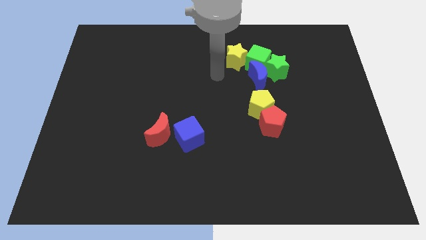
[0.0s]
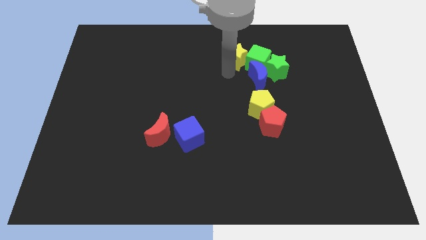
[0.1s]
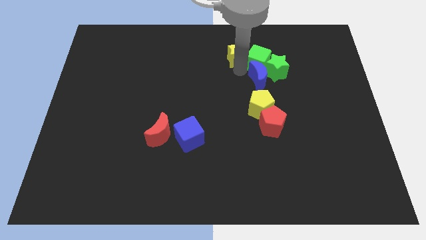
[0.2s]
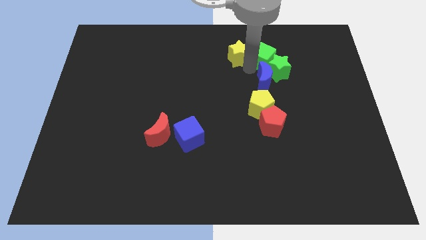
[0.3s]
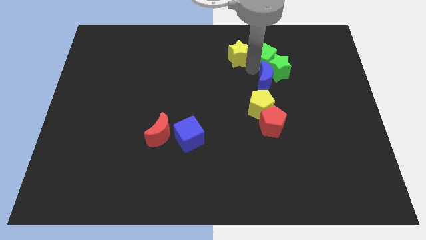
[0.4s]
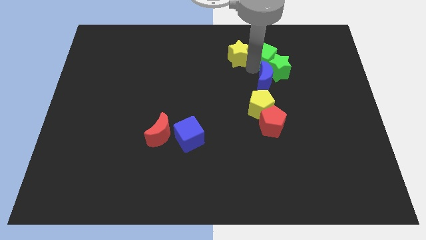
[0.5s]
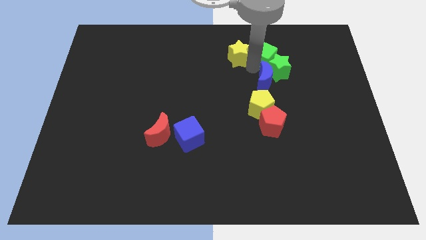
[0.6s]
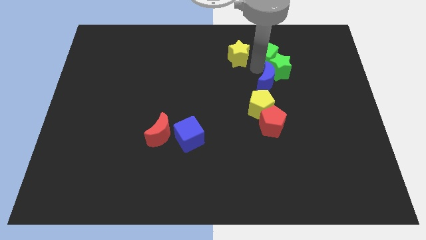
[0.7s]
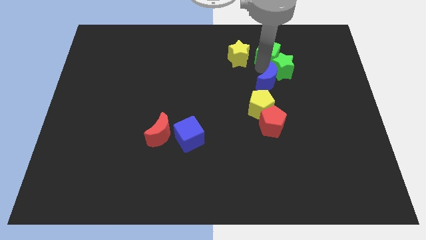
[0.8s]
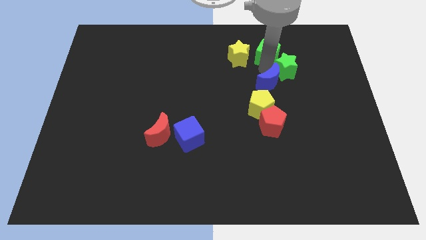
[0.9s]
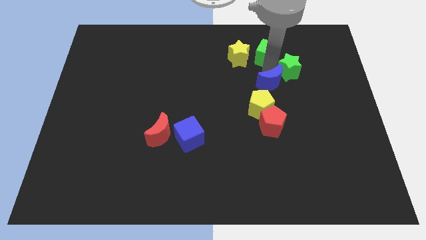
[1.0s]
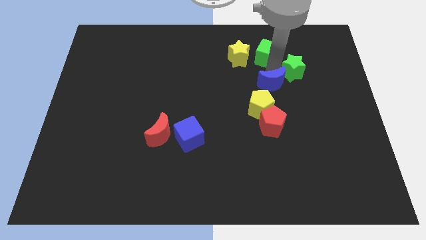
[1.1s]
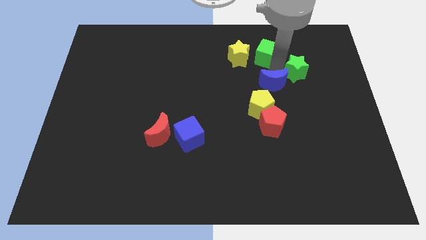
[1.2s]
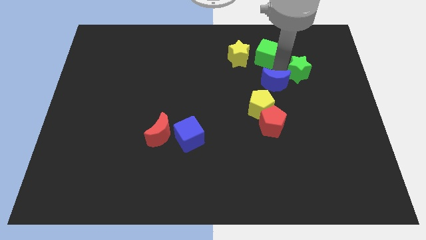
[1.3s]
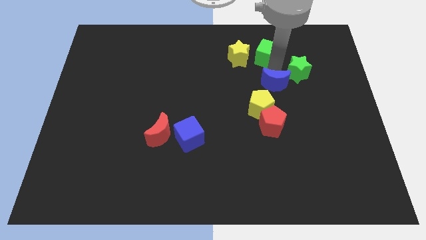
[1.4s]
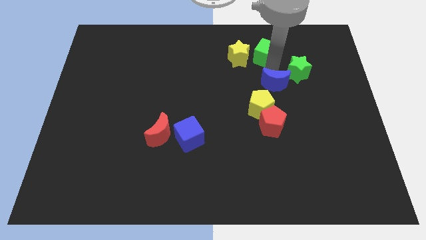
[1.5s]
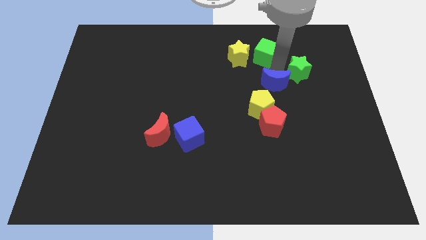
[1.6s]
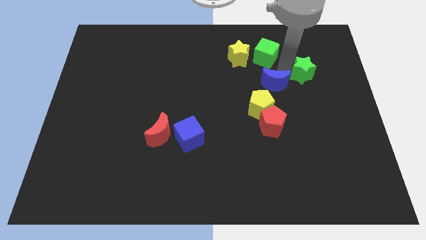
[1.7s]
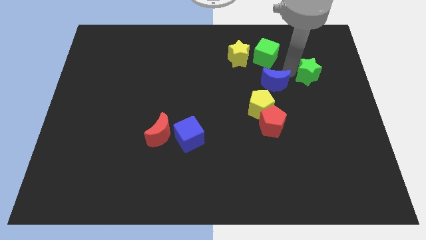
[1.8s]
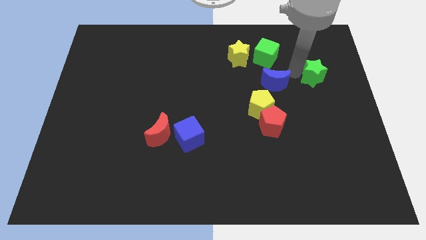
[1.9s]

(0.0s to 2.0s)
separate the green star from the blue moon and green cube

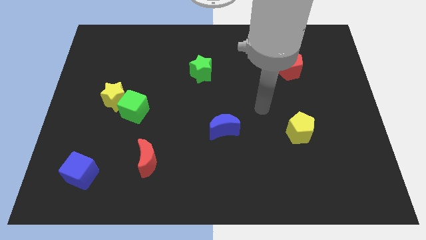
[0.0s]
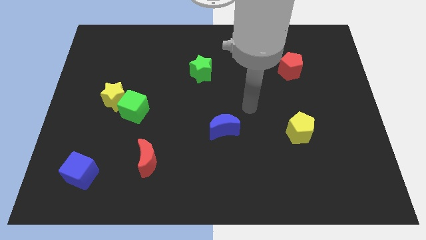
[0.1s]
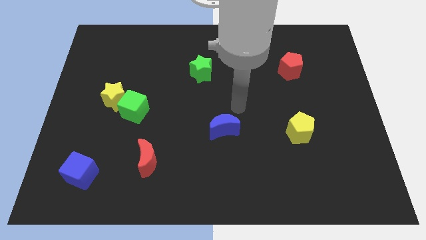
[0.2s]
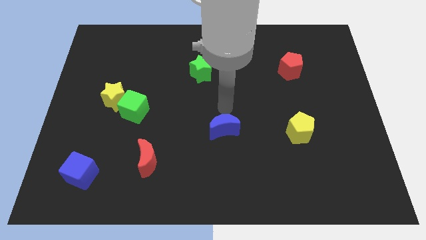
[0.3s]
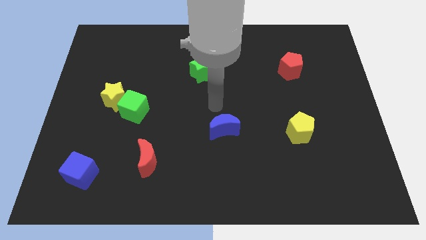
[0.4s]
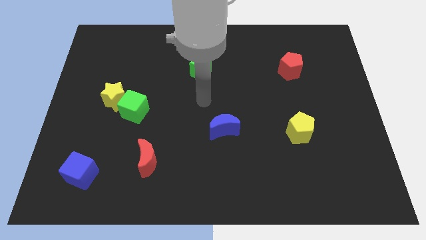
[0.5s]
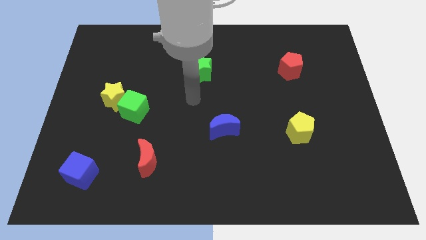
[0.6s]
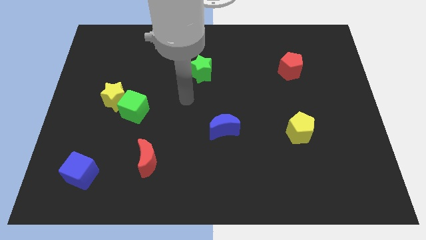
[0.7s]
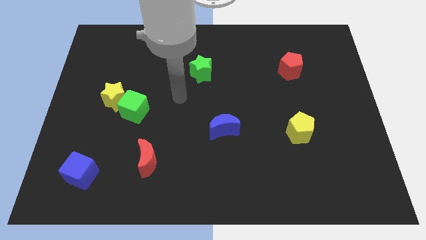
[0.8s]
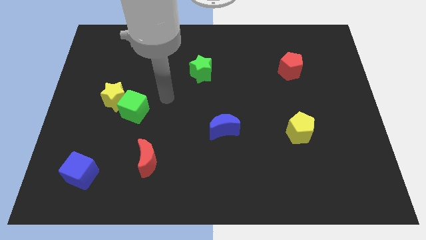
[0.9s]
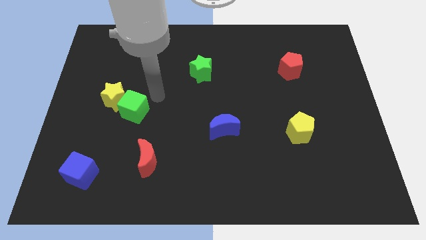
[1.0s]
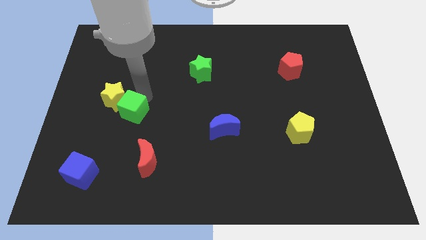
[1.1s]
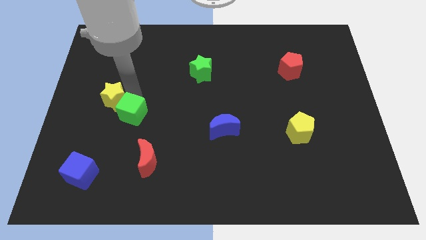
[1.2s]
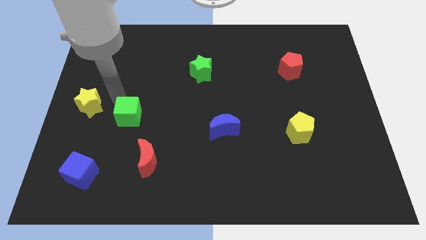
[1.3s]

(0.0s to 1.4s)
separate the green cube from the yellow star

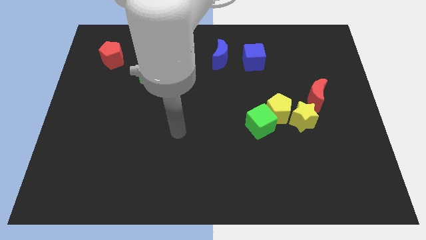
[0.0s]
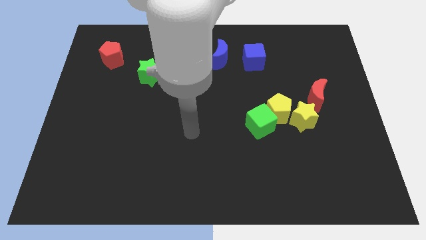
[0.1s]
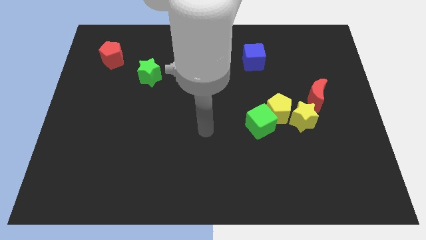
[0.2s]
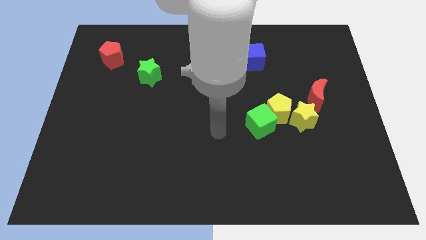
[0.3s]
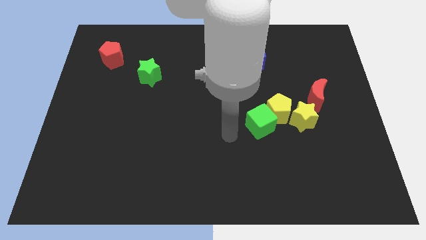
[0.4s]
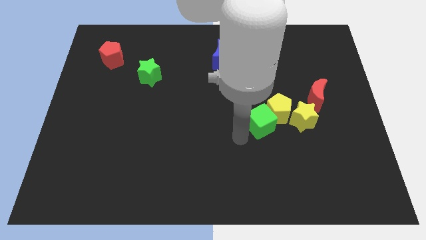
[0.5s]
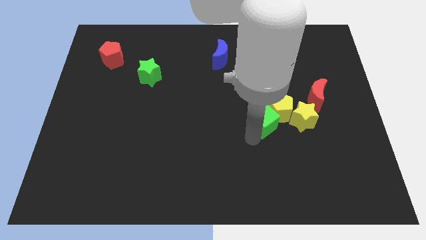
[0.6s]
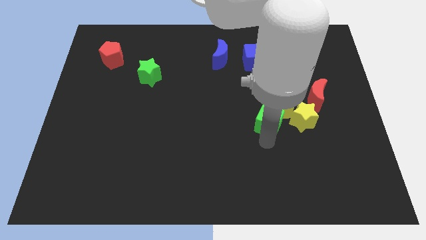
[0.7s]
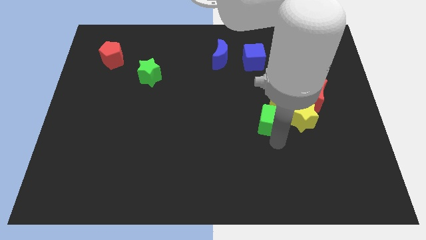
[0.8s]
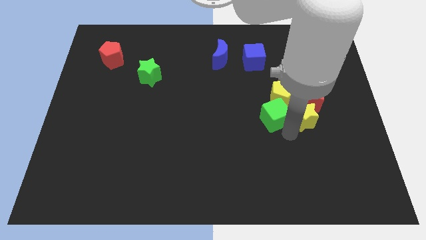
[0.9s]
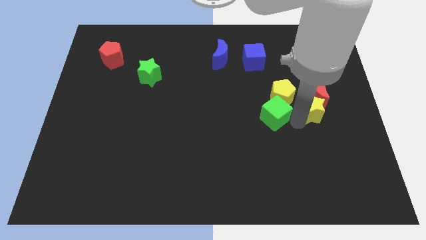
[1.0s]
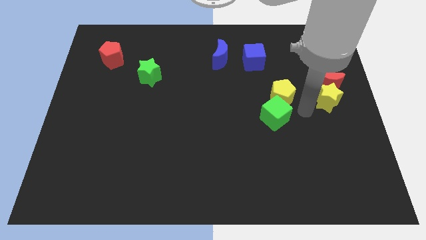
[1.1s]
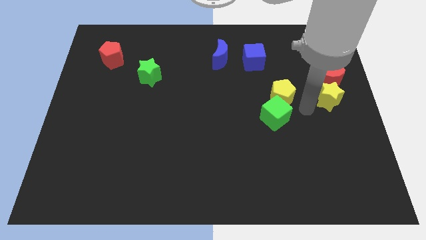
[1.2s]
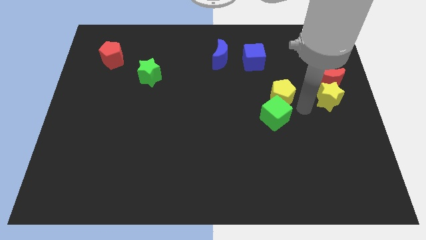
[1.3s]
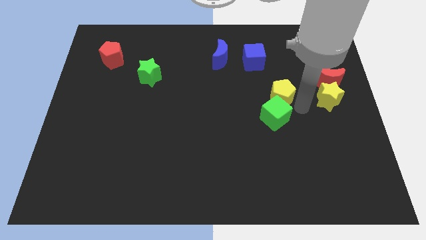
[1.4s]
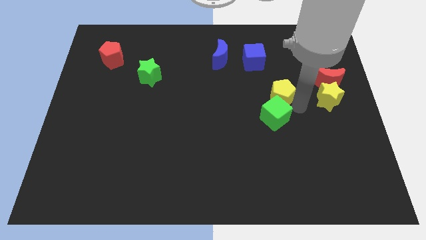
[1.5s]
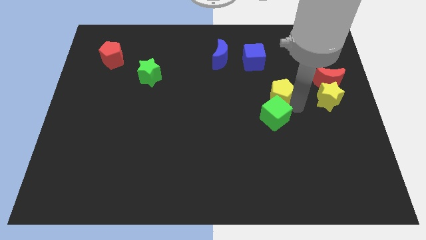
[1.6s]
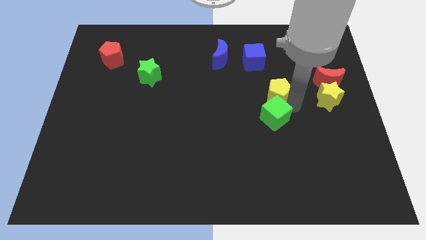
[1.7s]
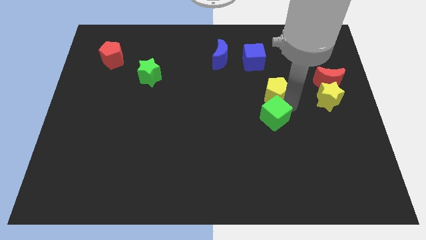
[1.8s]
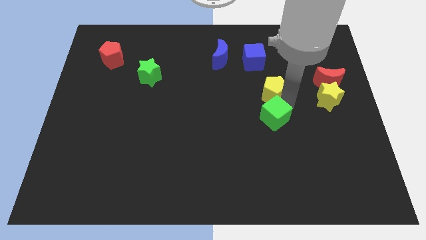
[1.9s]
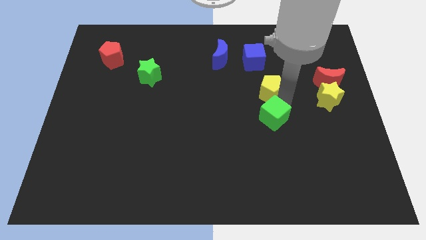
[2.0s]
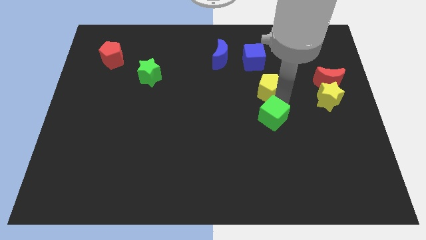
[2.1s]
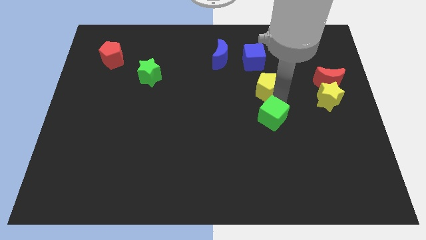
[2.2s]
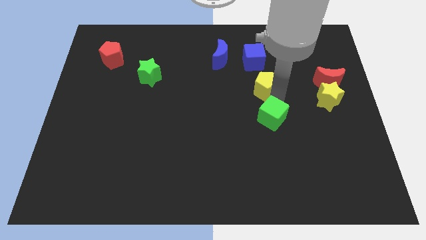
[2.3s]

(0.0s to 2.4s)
move the yellow pentagon away from the green cube and yellow star

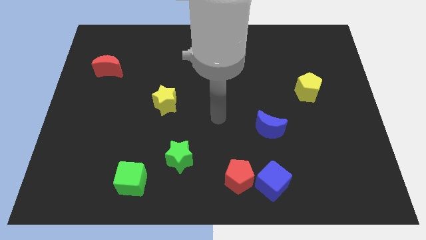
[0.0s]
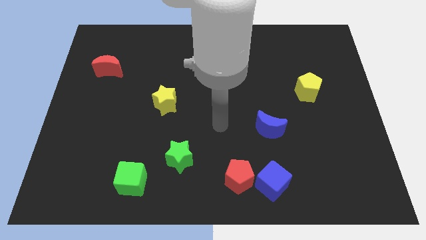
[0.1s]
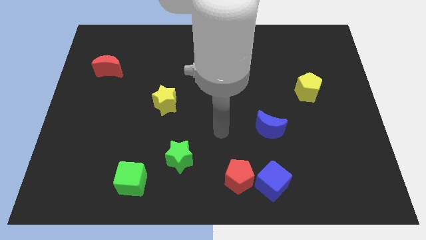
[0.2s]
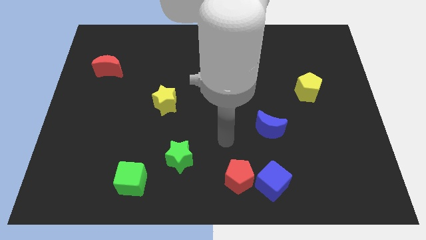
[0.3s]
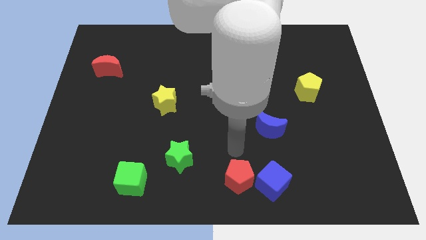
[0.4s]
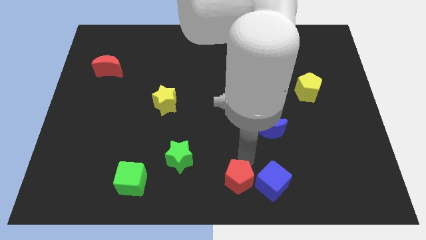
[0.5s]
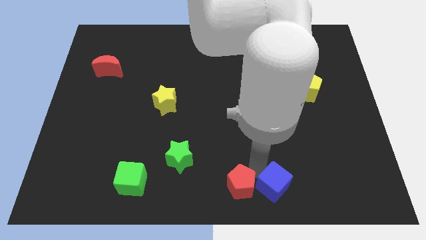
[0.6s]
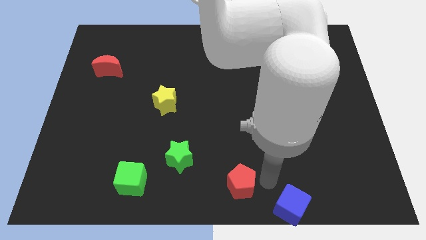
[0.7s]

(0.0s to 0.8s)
separate the red pentagon from the blue cube

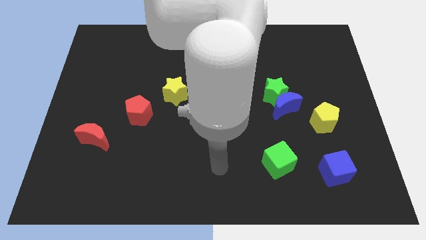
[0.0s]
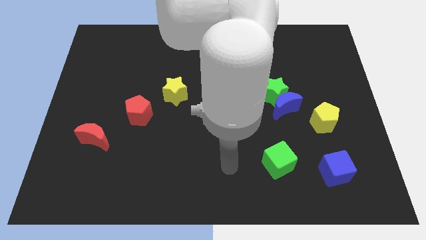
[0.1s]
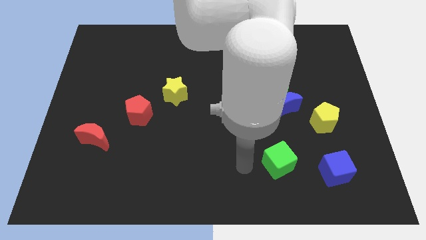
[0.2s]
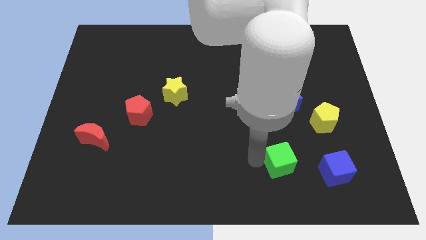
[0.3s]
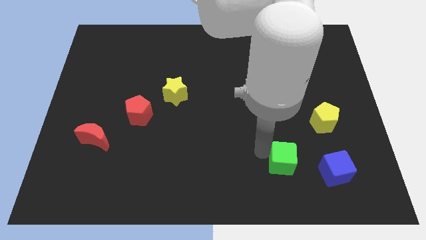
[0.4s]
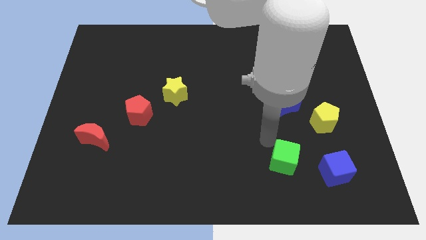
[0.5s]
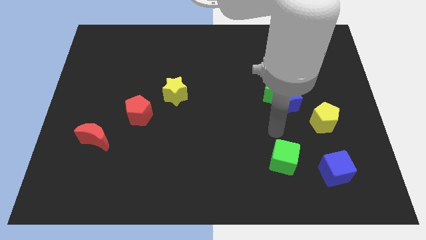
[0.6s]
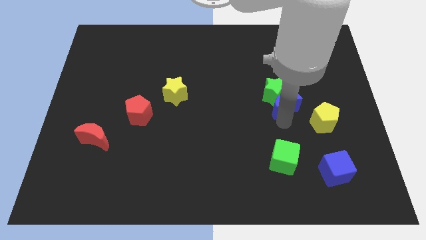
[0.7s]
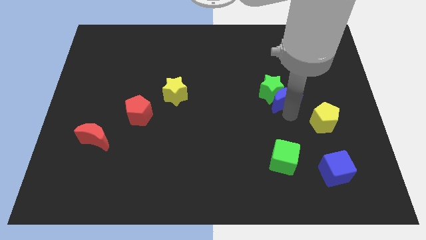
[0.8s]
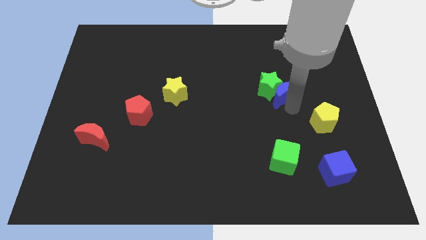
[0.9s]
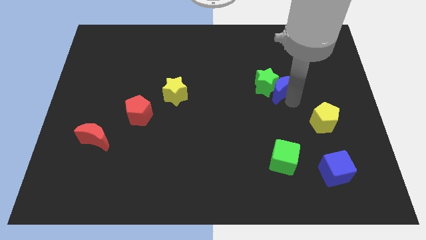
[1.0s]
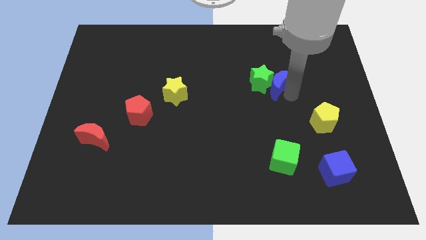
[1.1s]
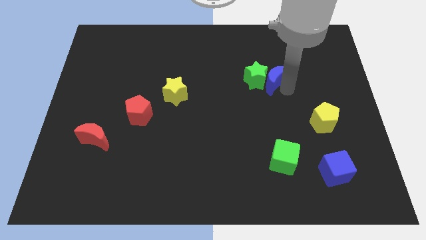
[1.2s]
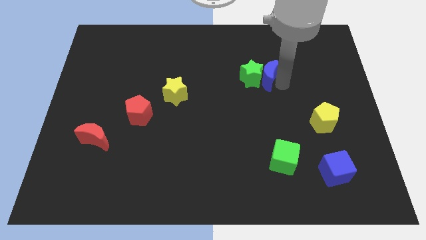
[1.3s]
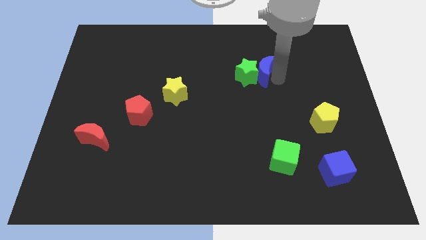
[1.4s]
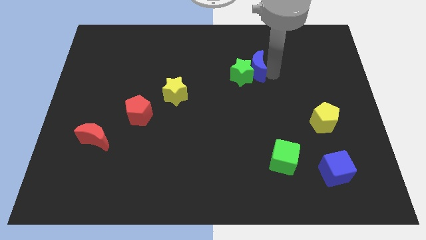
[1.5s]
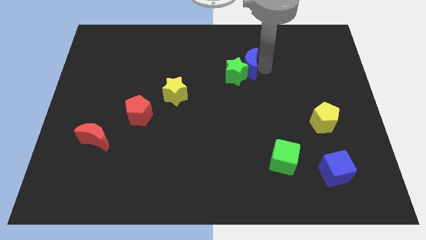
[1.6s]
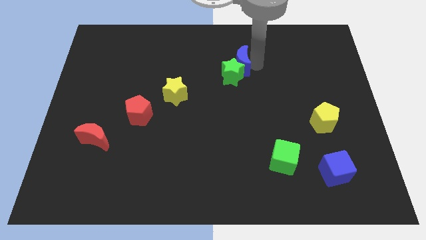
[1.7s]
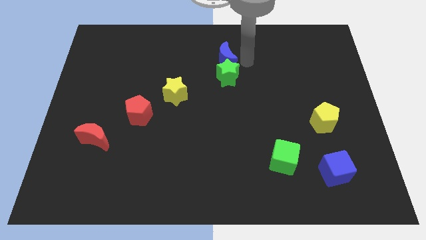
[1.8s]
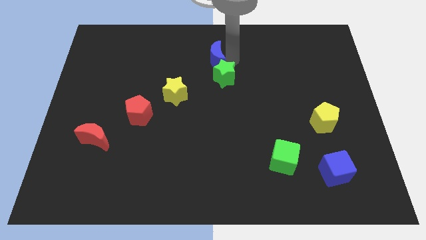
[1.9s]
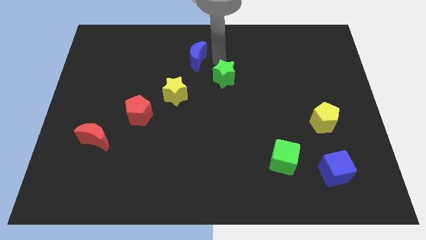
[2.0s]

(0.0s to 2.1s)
move the green star away from the blue moon

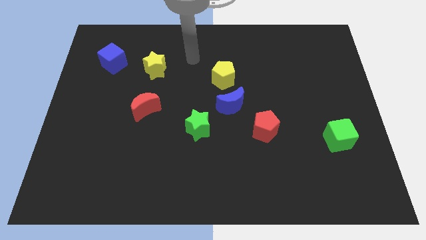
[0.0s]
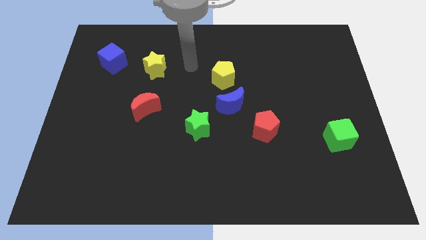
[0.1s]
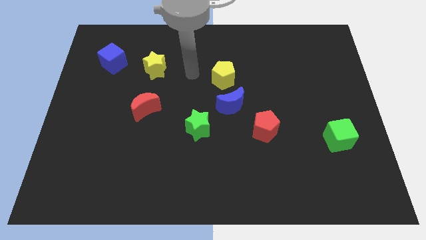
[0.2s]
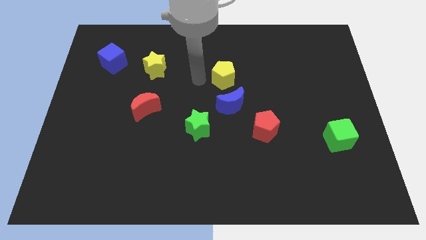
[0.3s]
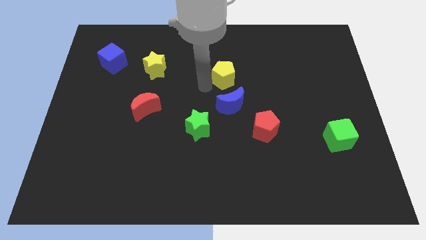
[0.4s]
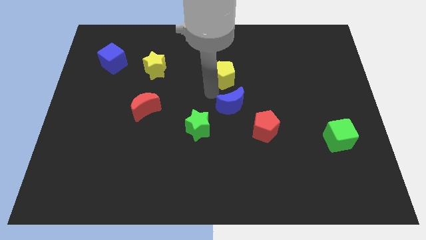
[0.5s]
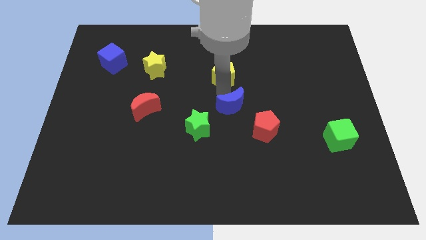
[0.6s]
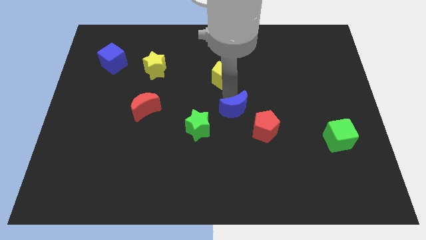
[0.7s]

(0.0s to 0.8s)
move the yellow pentagon away from the blue moon

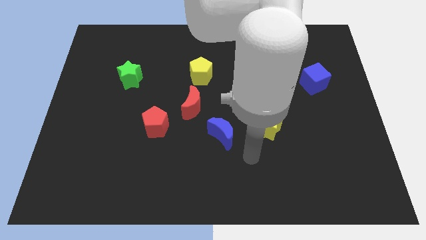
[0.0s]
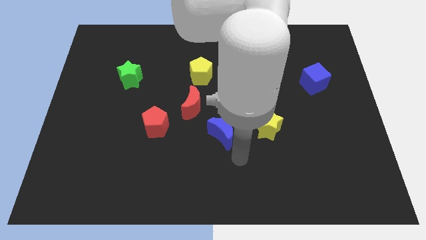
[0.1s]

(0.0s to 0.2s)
pull the red moon apart from the red pentagon
